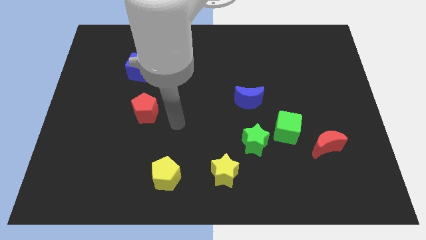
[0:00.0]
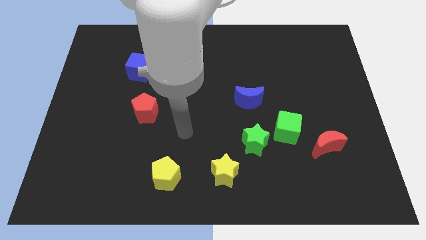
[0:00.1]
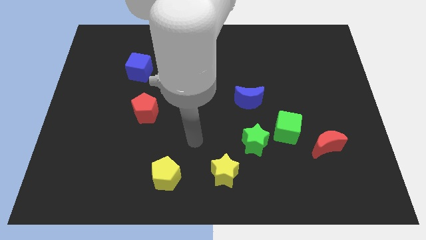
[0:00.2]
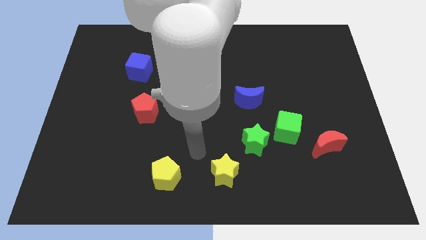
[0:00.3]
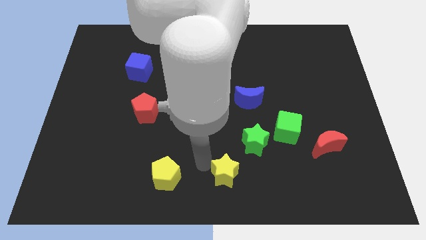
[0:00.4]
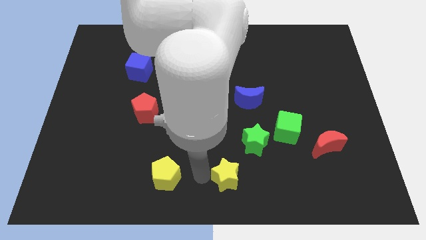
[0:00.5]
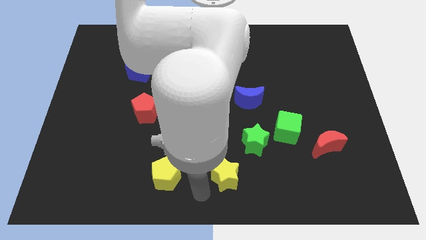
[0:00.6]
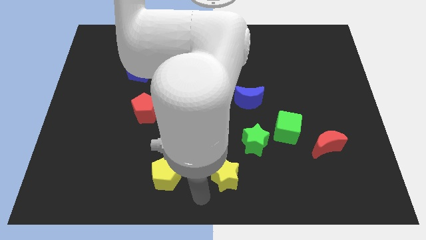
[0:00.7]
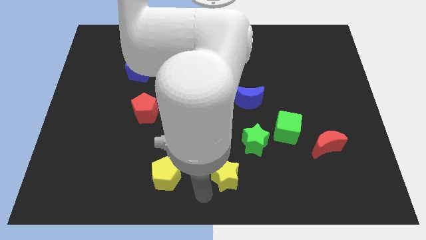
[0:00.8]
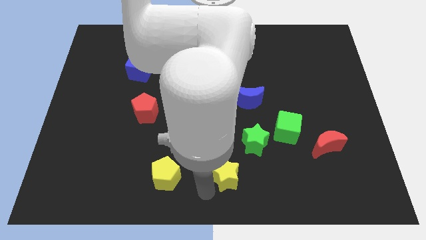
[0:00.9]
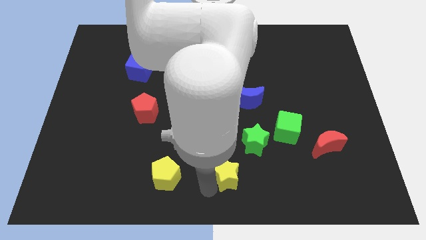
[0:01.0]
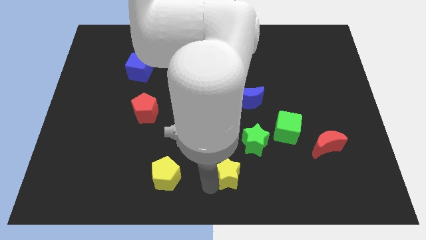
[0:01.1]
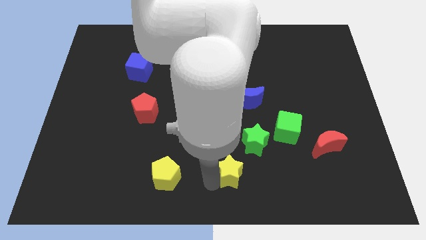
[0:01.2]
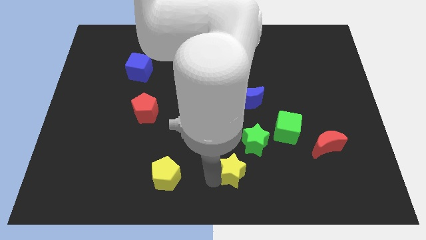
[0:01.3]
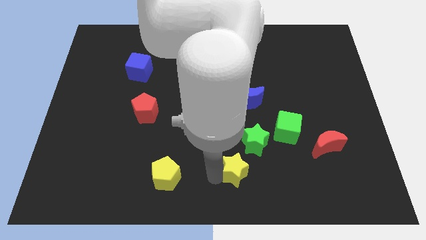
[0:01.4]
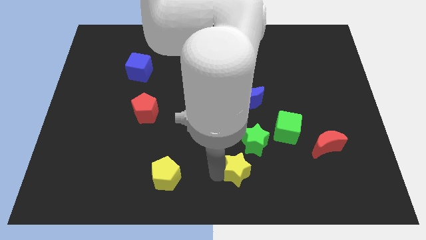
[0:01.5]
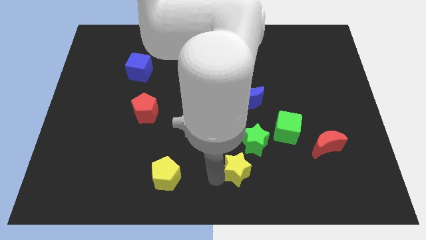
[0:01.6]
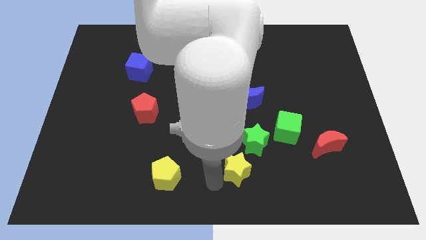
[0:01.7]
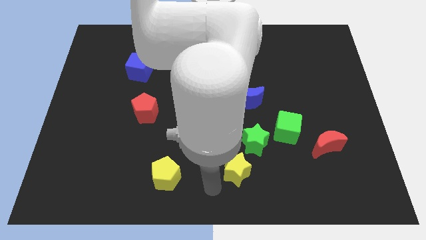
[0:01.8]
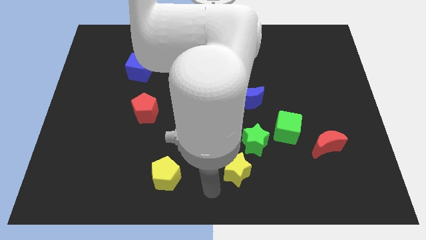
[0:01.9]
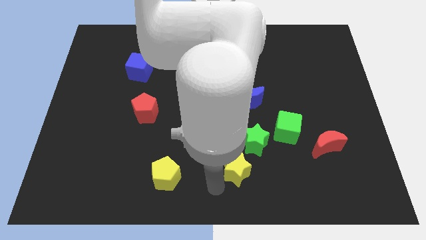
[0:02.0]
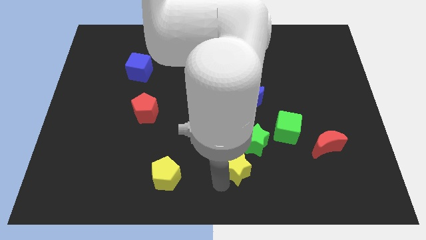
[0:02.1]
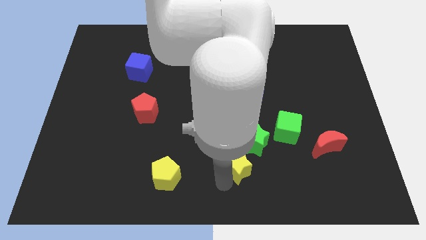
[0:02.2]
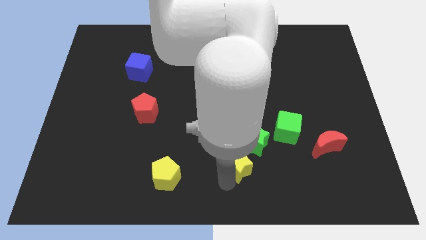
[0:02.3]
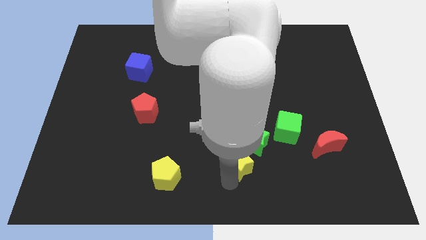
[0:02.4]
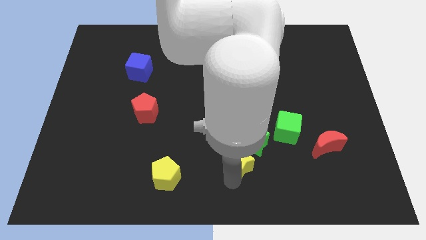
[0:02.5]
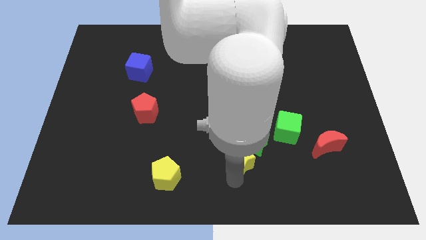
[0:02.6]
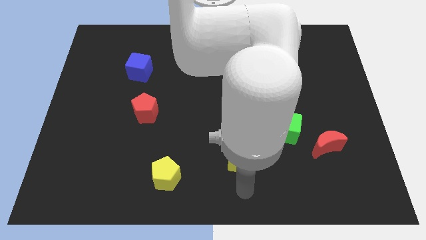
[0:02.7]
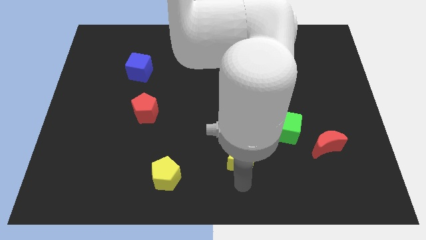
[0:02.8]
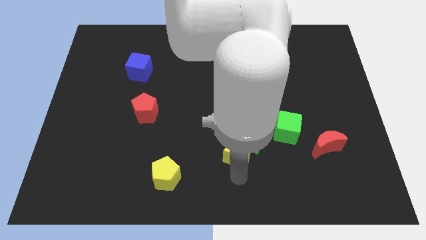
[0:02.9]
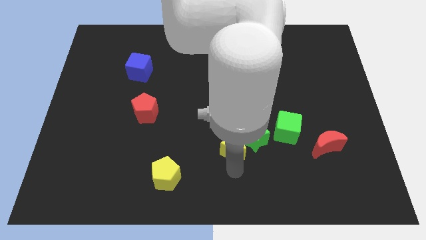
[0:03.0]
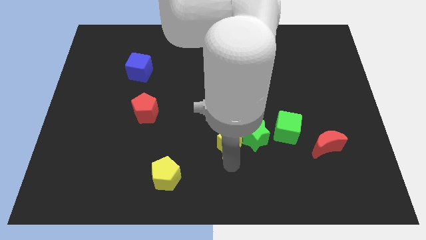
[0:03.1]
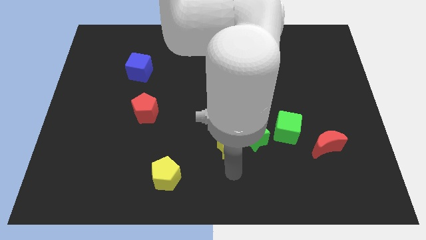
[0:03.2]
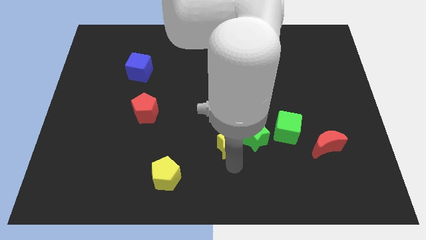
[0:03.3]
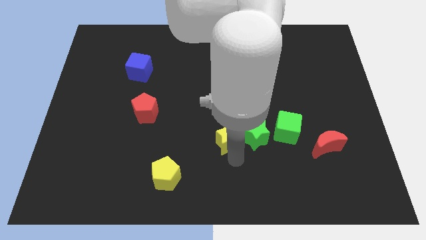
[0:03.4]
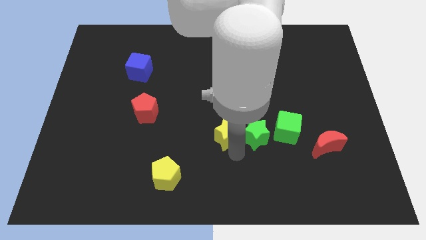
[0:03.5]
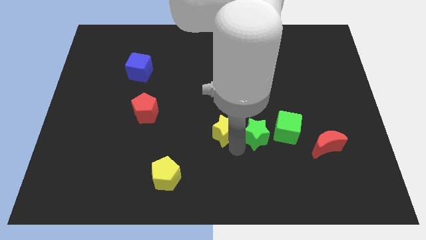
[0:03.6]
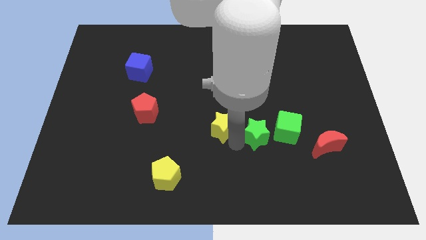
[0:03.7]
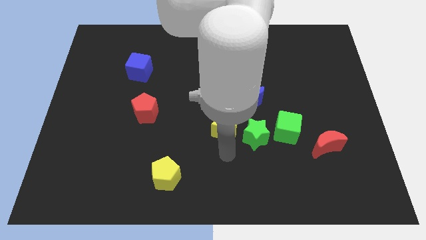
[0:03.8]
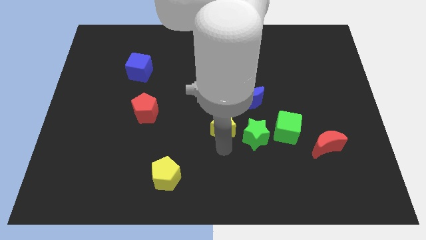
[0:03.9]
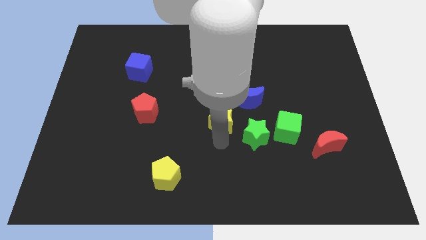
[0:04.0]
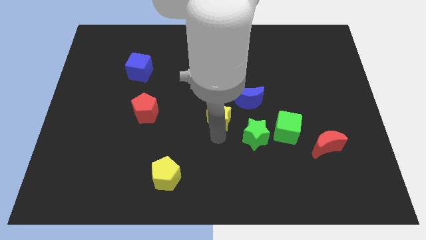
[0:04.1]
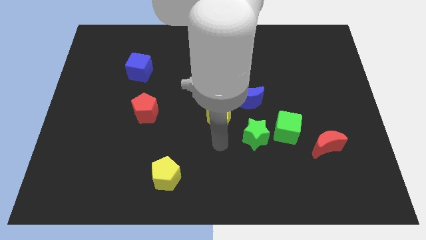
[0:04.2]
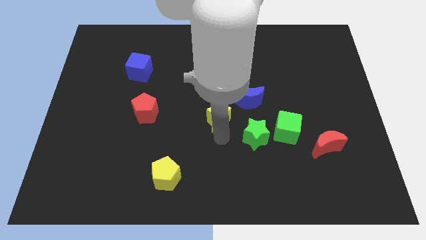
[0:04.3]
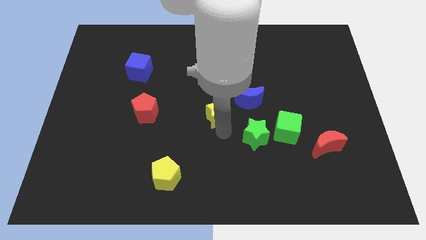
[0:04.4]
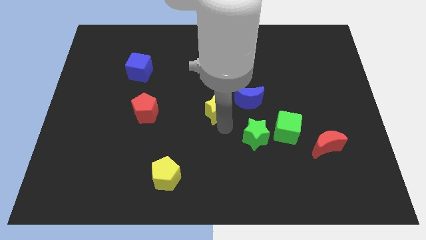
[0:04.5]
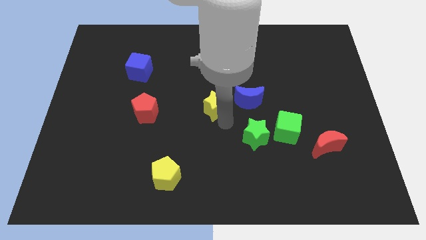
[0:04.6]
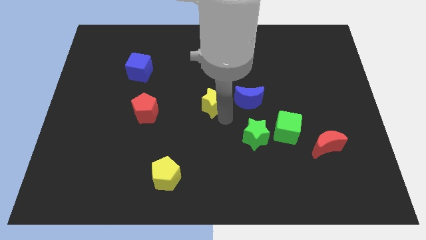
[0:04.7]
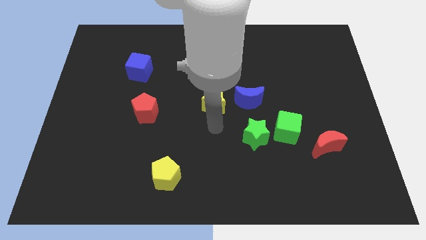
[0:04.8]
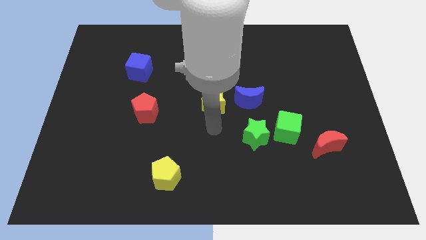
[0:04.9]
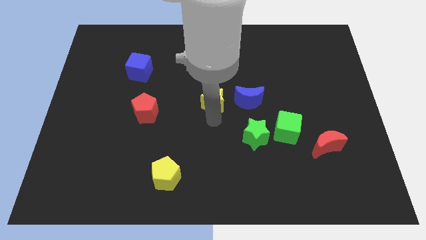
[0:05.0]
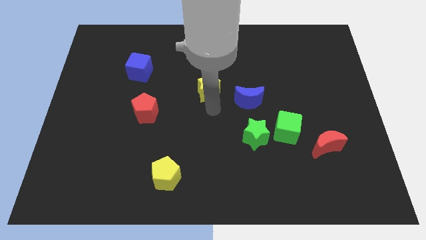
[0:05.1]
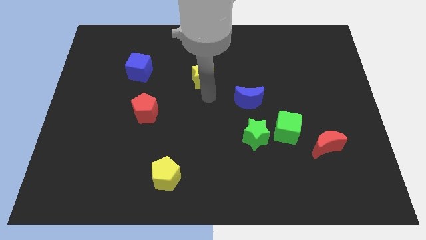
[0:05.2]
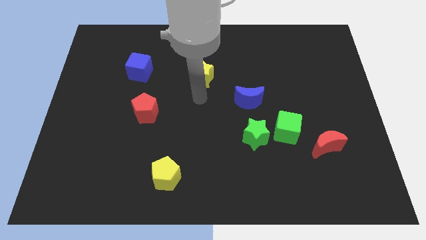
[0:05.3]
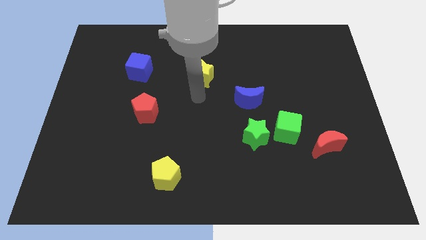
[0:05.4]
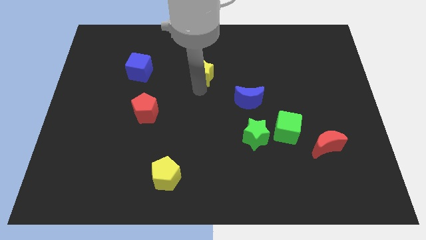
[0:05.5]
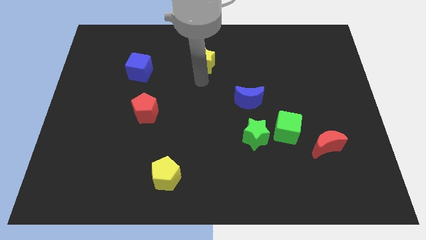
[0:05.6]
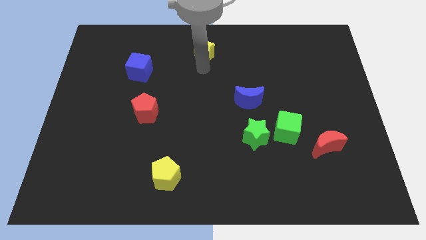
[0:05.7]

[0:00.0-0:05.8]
move the yellow star to the top

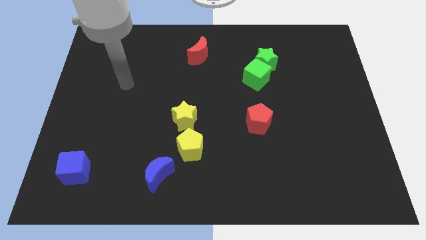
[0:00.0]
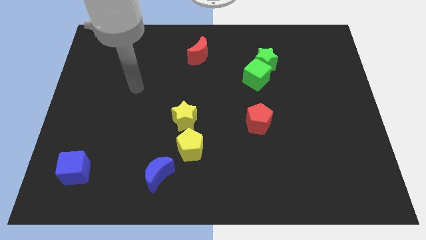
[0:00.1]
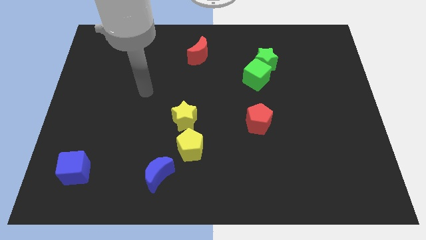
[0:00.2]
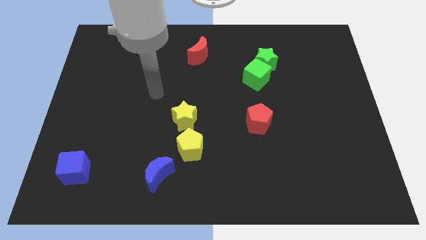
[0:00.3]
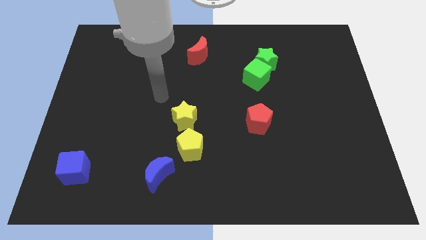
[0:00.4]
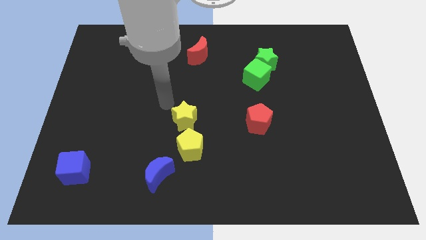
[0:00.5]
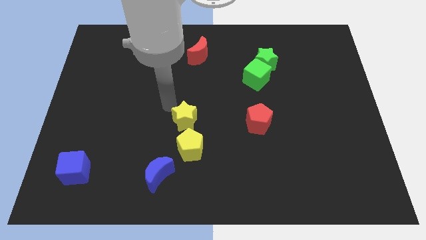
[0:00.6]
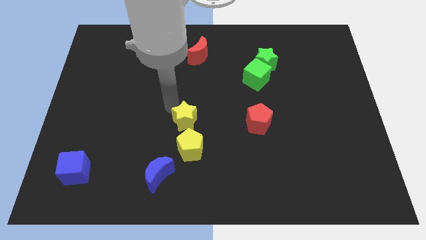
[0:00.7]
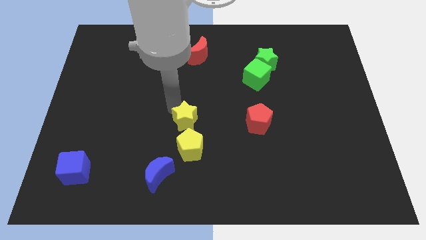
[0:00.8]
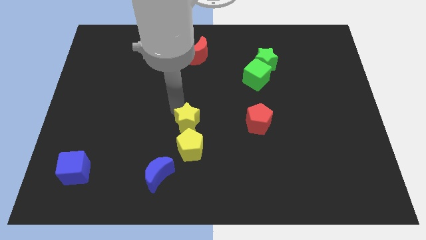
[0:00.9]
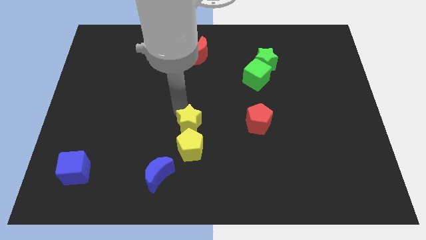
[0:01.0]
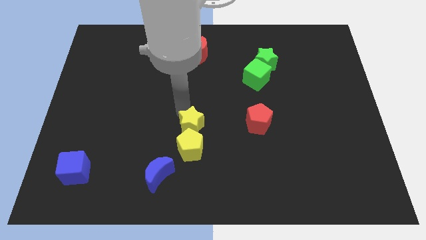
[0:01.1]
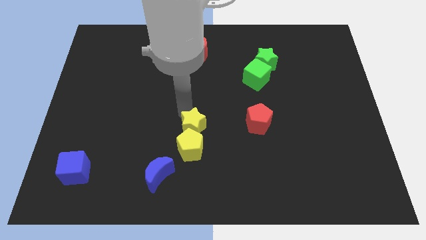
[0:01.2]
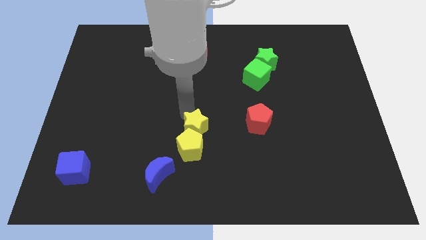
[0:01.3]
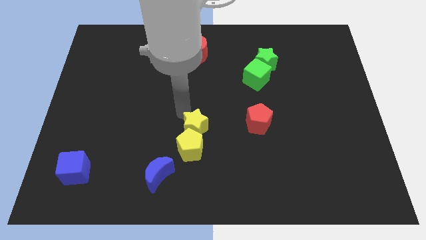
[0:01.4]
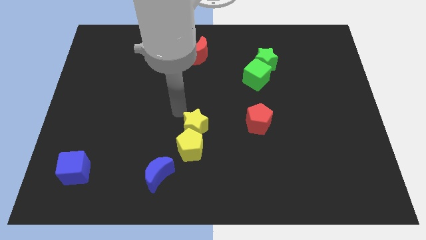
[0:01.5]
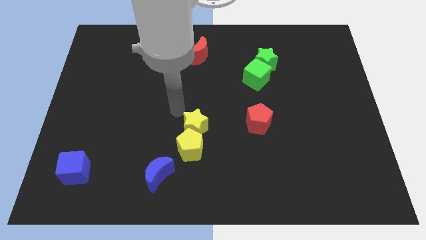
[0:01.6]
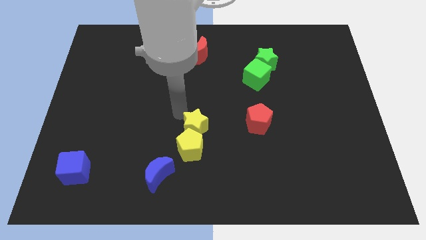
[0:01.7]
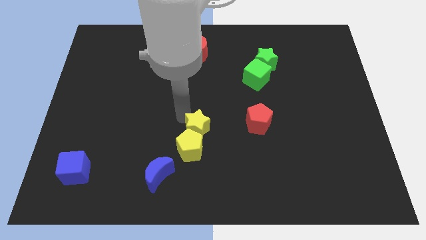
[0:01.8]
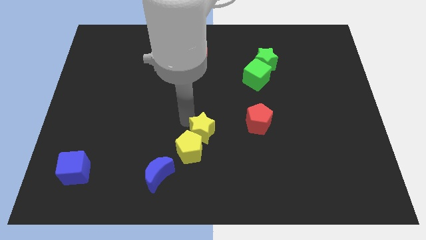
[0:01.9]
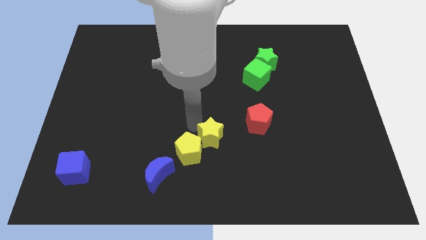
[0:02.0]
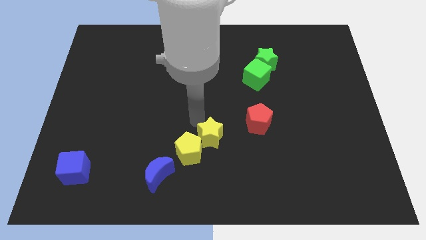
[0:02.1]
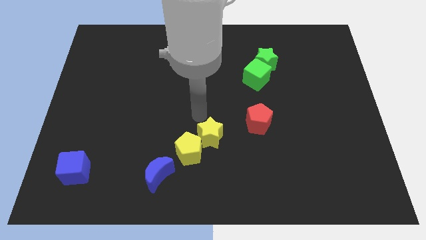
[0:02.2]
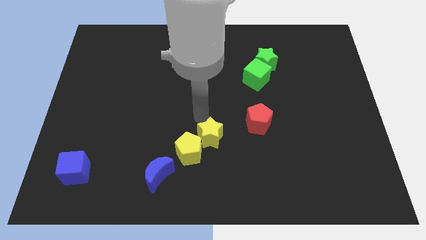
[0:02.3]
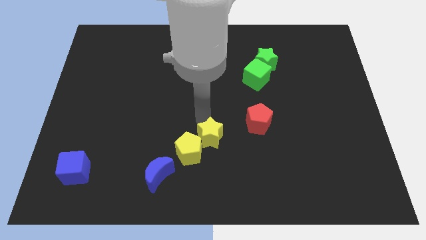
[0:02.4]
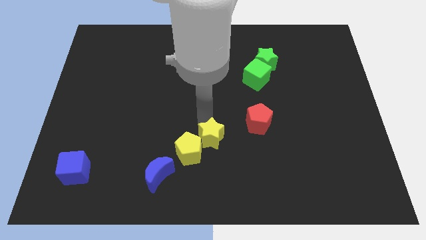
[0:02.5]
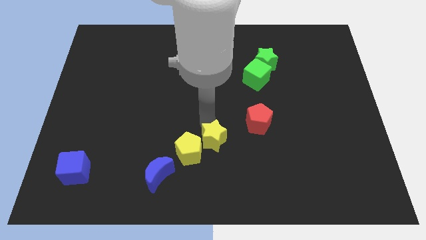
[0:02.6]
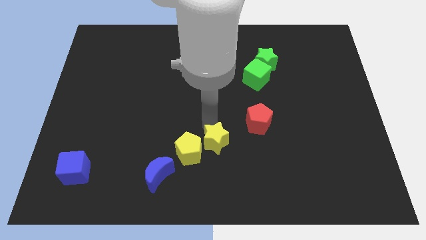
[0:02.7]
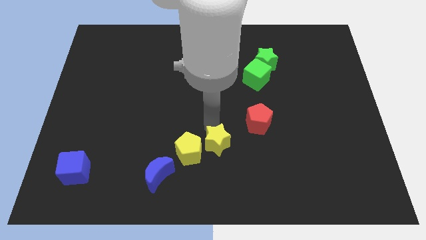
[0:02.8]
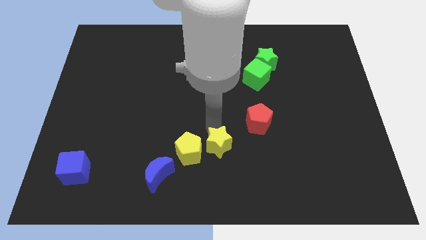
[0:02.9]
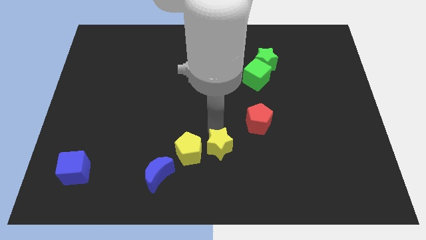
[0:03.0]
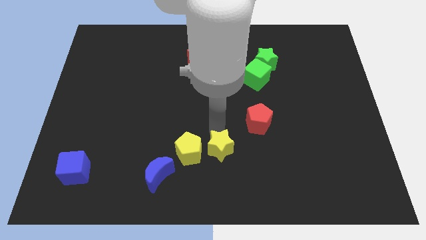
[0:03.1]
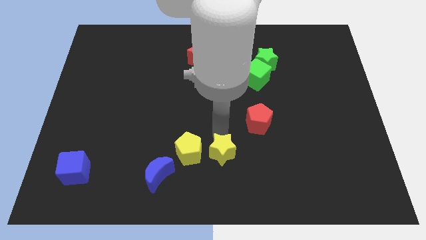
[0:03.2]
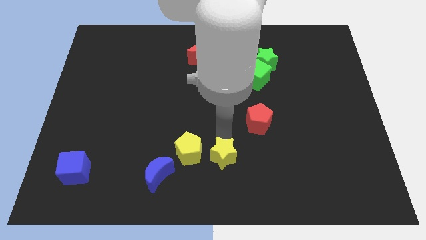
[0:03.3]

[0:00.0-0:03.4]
slide the yellow star to the bottom side
